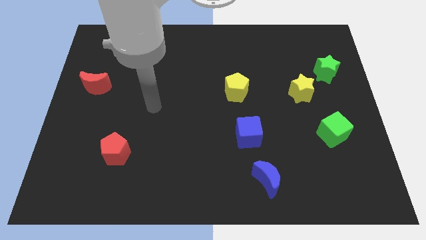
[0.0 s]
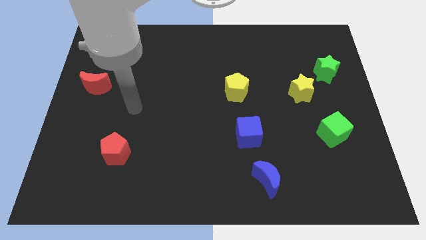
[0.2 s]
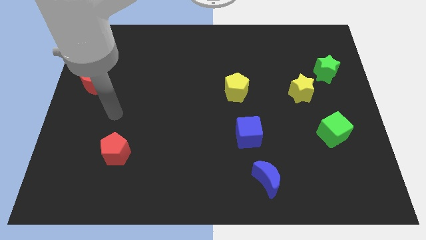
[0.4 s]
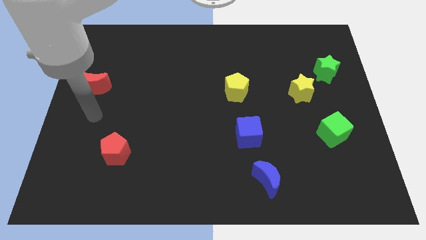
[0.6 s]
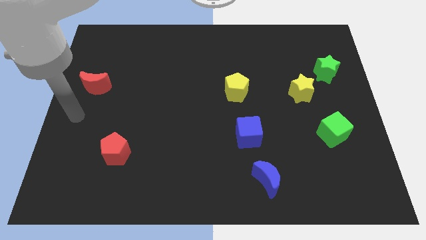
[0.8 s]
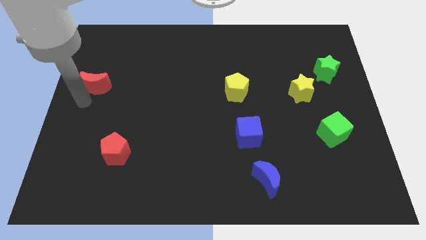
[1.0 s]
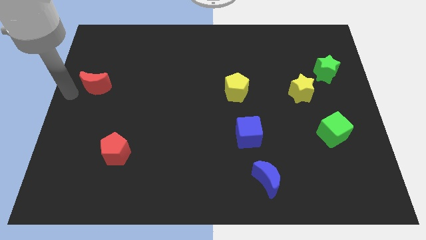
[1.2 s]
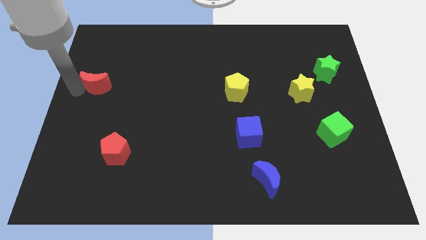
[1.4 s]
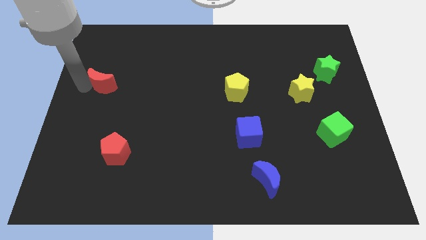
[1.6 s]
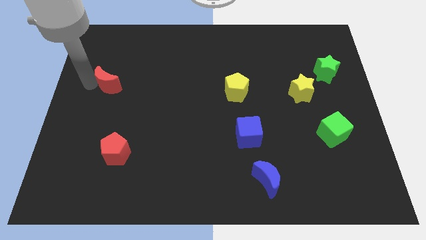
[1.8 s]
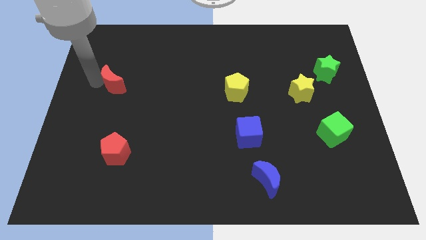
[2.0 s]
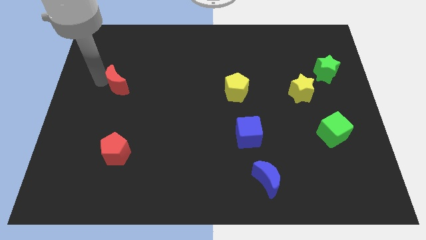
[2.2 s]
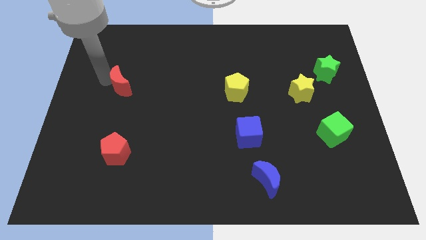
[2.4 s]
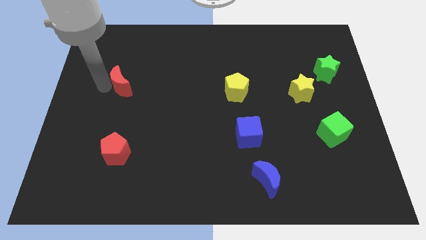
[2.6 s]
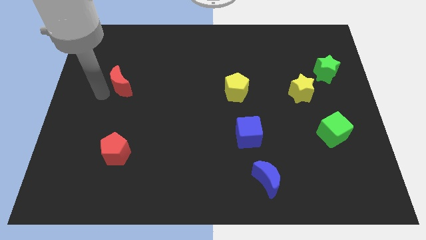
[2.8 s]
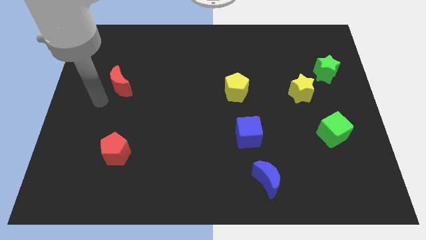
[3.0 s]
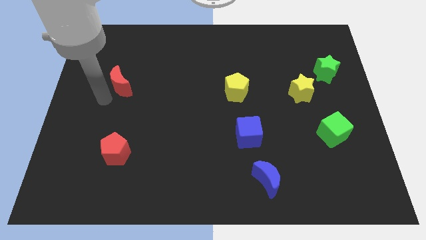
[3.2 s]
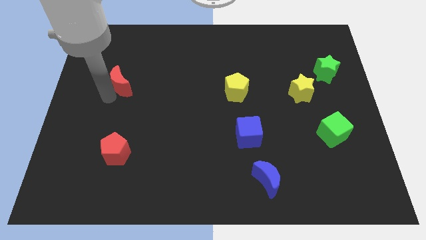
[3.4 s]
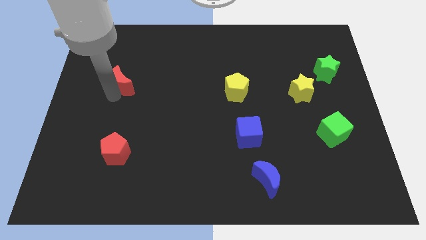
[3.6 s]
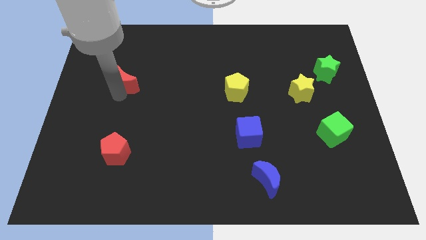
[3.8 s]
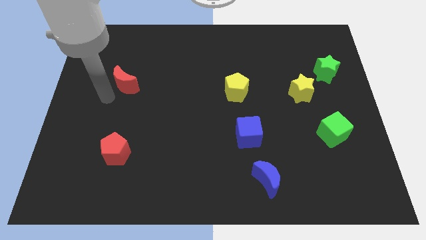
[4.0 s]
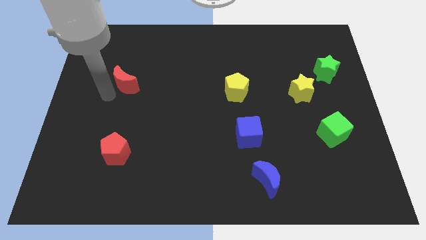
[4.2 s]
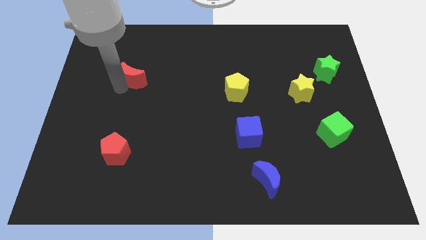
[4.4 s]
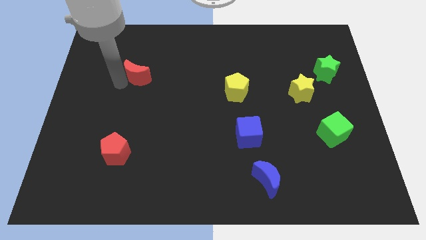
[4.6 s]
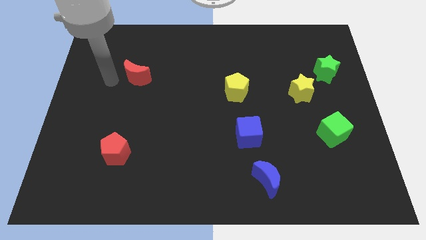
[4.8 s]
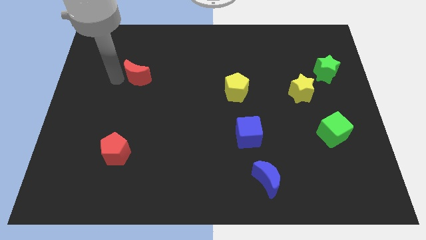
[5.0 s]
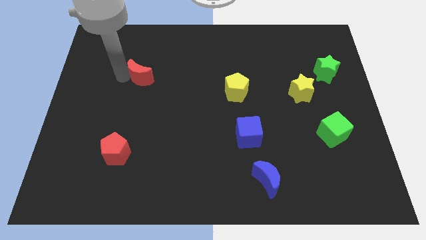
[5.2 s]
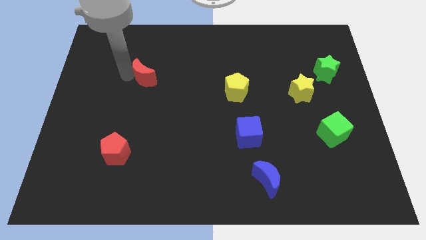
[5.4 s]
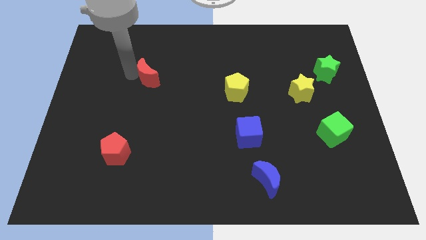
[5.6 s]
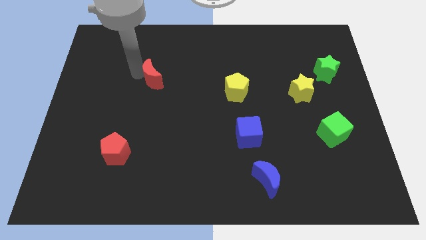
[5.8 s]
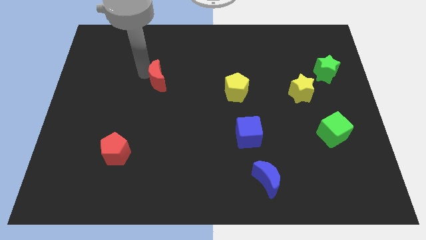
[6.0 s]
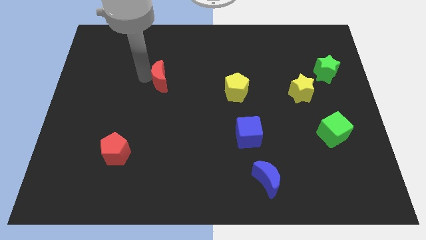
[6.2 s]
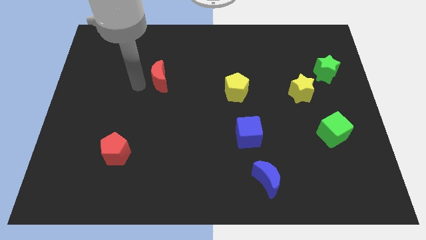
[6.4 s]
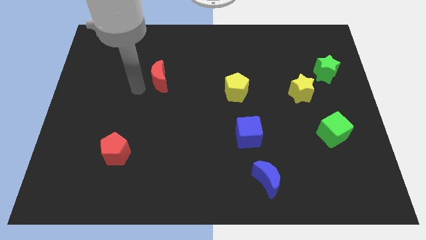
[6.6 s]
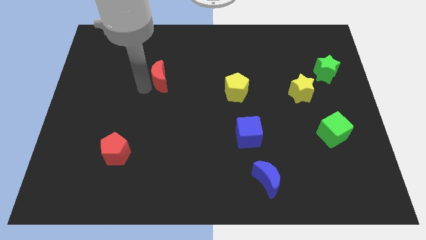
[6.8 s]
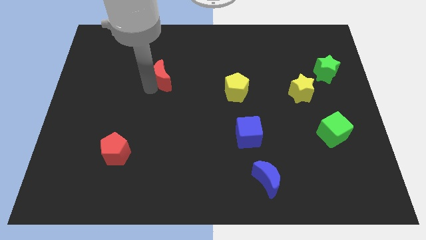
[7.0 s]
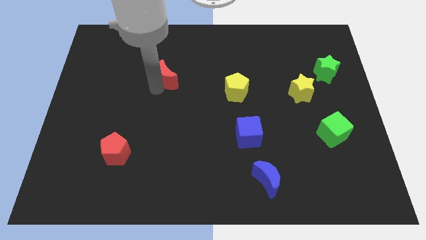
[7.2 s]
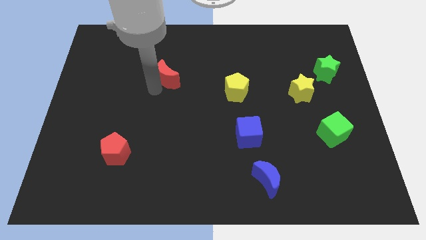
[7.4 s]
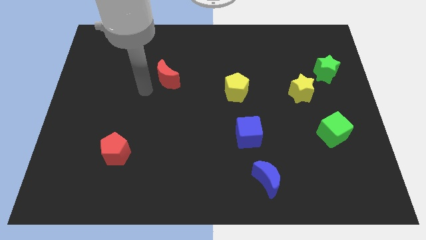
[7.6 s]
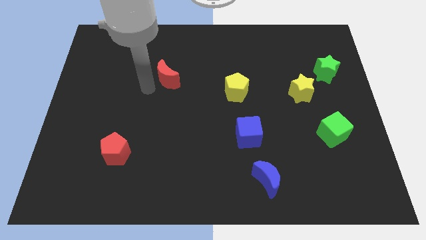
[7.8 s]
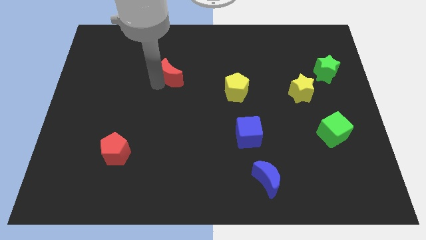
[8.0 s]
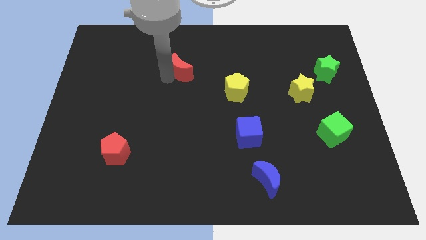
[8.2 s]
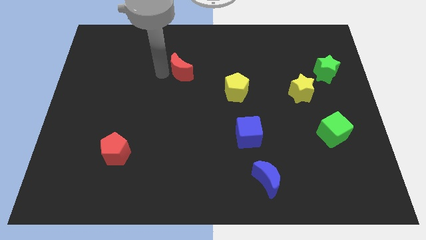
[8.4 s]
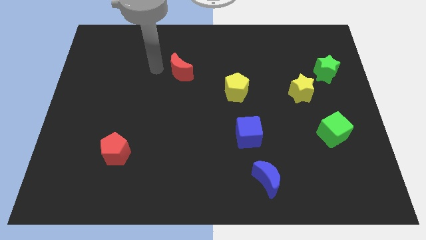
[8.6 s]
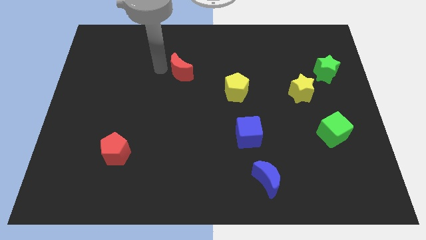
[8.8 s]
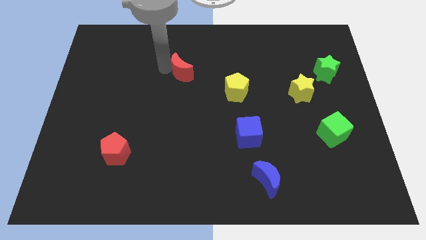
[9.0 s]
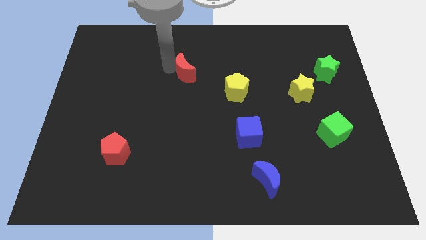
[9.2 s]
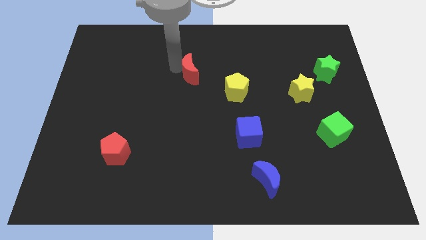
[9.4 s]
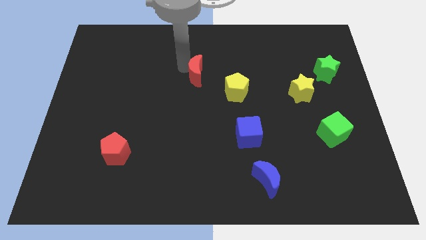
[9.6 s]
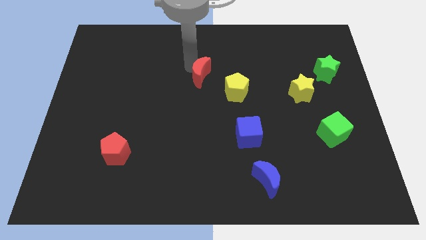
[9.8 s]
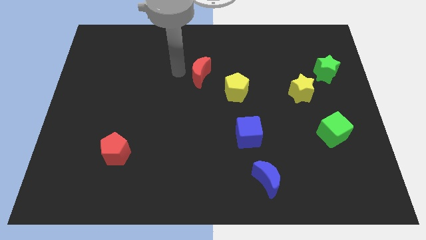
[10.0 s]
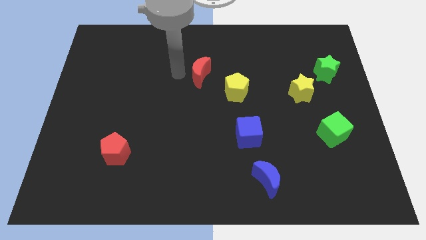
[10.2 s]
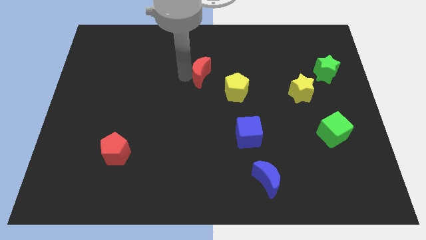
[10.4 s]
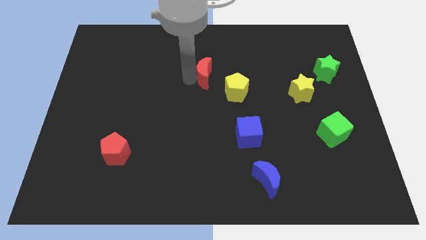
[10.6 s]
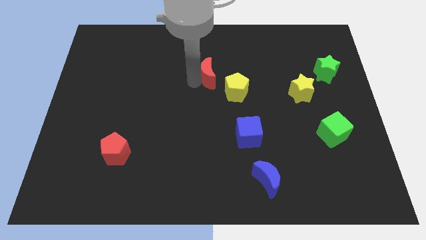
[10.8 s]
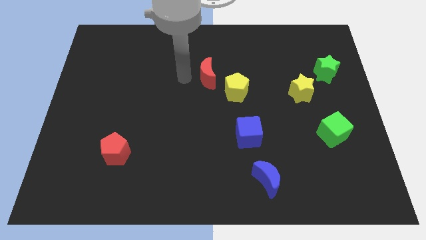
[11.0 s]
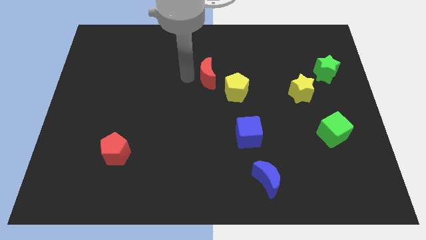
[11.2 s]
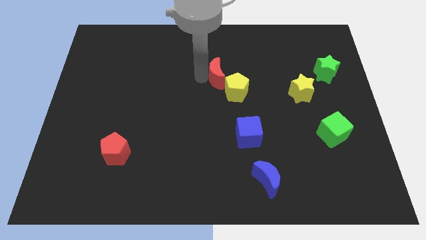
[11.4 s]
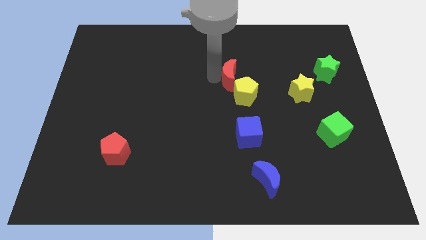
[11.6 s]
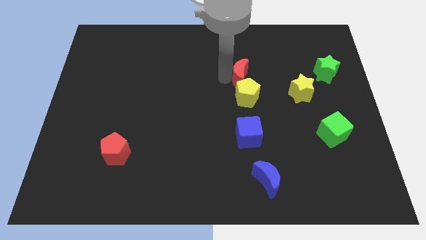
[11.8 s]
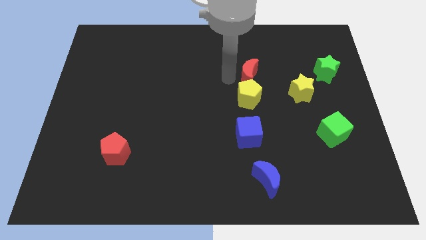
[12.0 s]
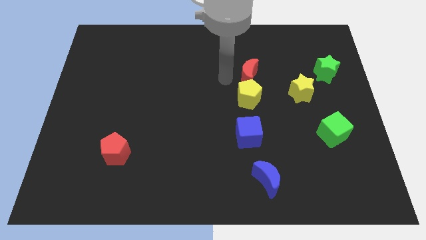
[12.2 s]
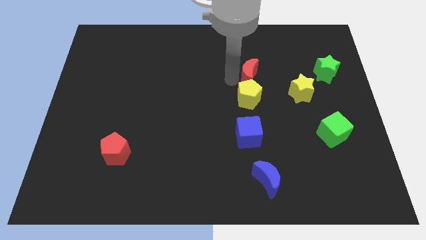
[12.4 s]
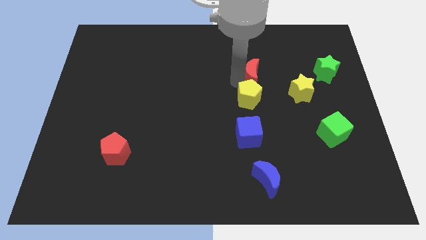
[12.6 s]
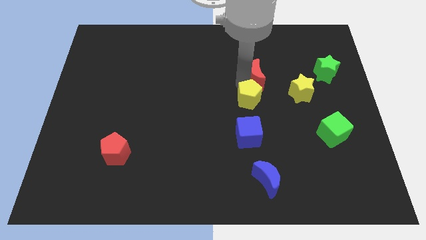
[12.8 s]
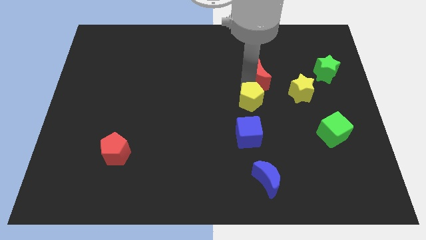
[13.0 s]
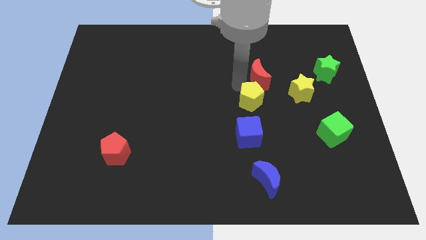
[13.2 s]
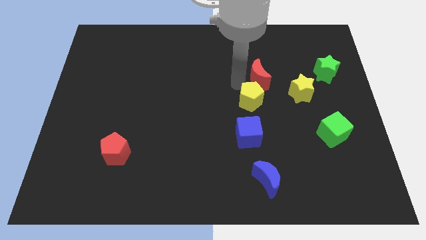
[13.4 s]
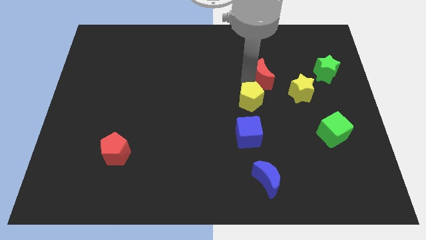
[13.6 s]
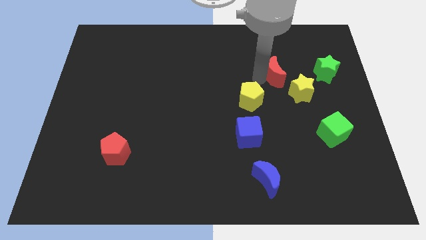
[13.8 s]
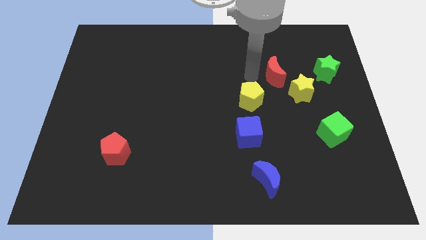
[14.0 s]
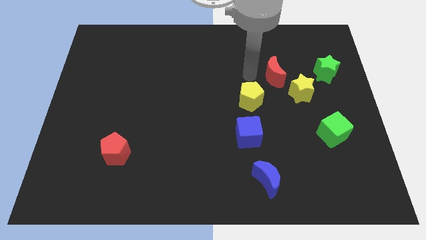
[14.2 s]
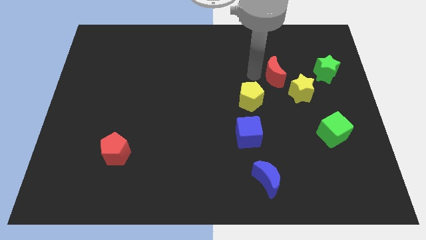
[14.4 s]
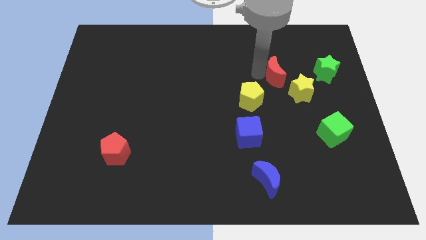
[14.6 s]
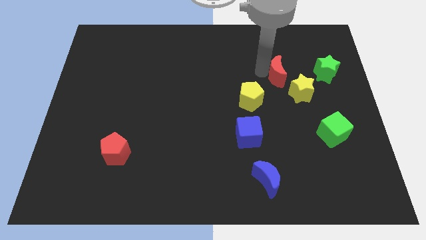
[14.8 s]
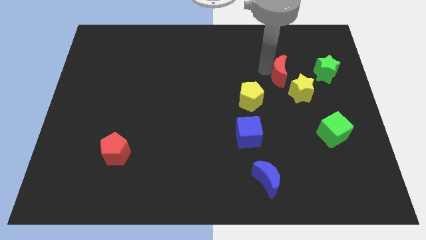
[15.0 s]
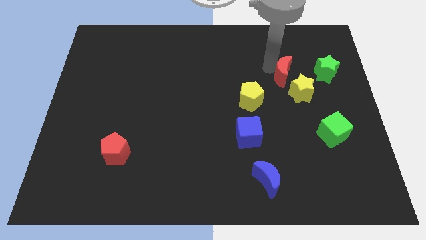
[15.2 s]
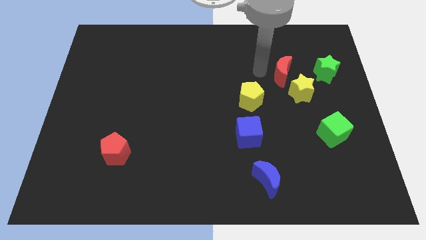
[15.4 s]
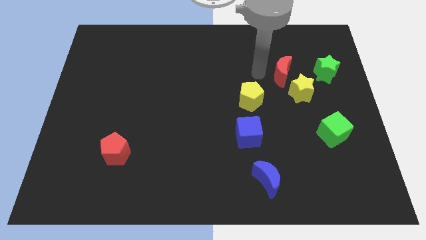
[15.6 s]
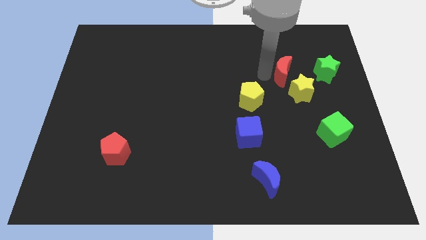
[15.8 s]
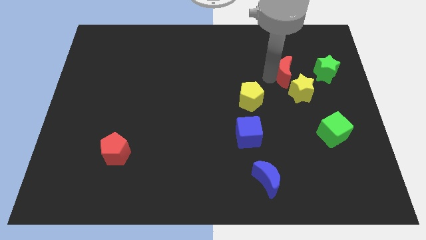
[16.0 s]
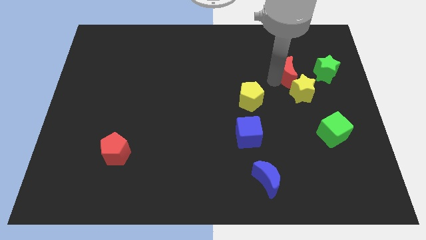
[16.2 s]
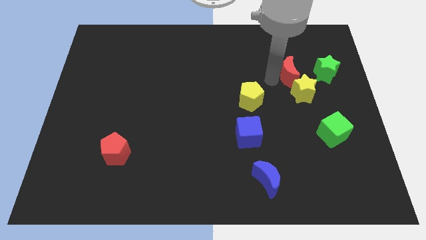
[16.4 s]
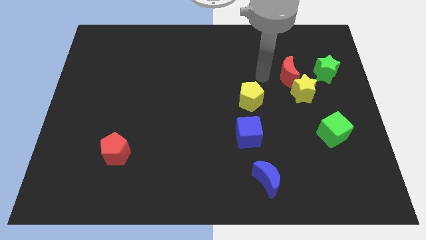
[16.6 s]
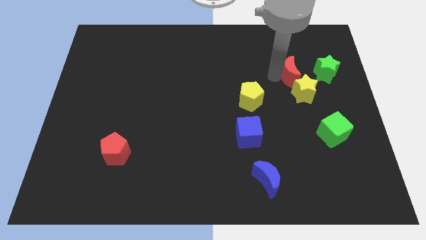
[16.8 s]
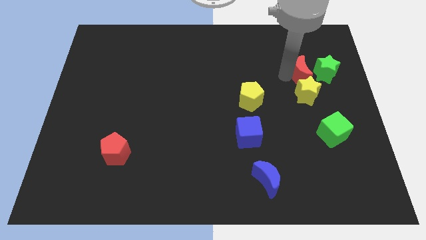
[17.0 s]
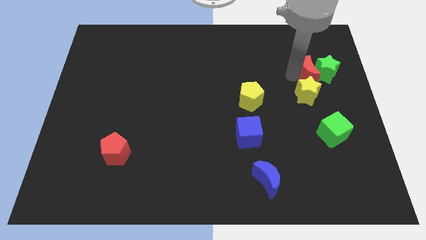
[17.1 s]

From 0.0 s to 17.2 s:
slide the red moon towards the green star
